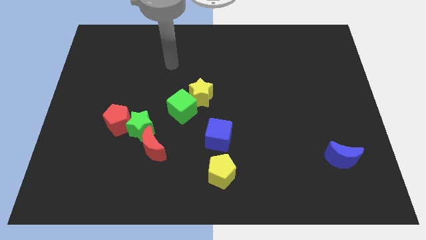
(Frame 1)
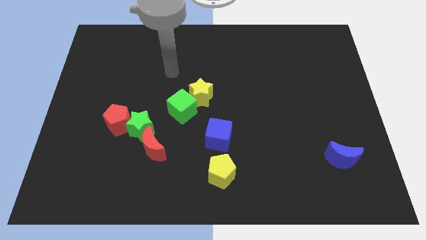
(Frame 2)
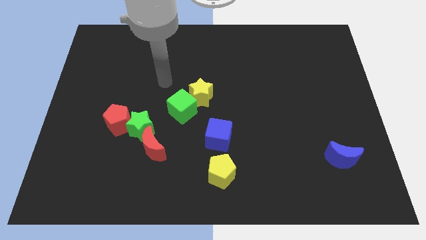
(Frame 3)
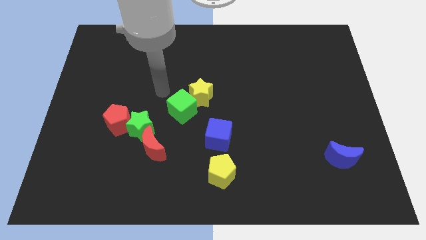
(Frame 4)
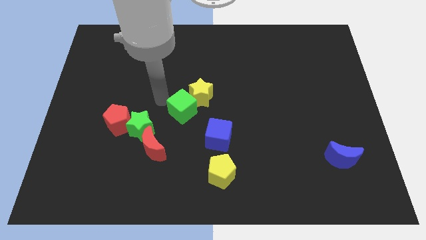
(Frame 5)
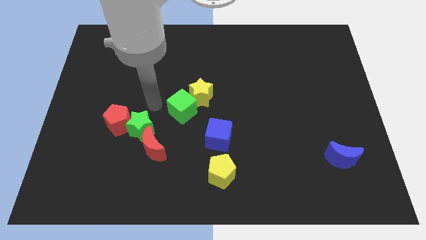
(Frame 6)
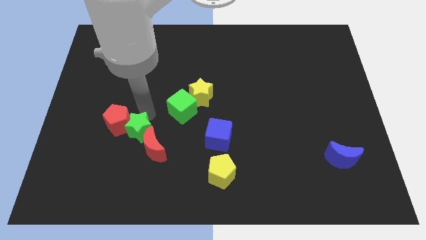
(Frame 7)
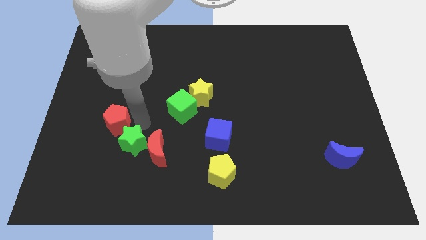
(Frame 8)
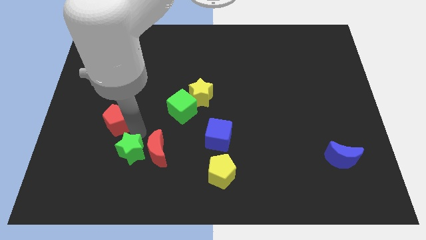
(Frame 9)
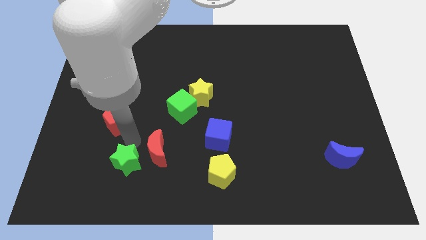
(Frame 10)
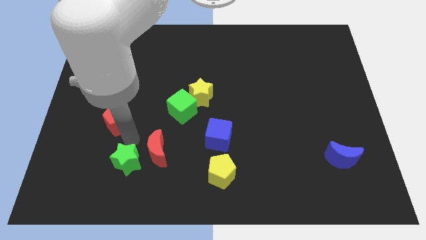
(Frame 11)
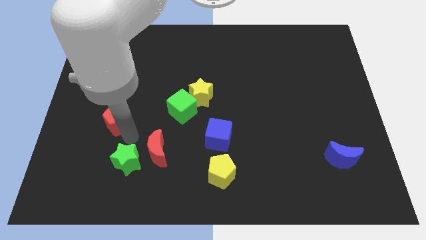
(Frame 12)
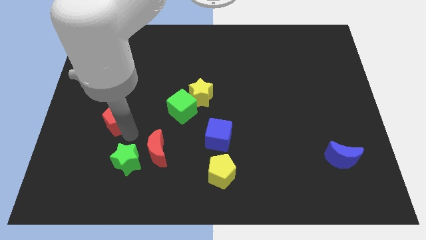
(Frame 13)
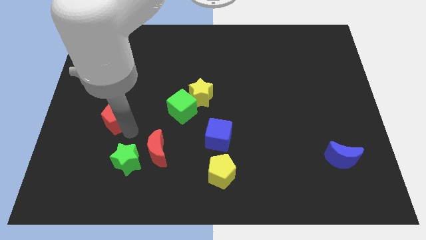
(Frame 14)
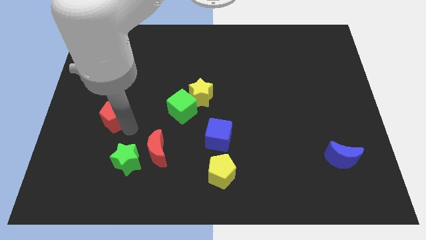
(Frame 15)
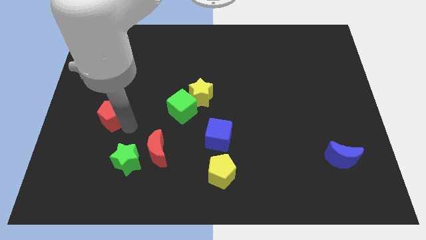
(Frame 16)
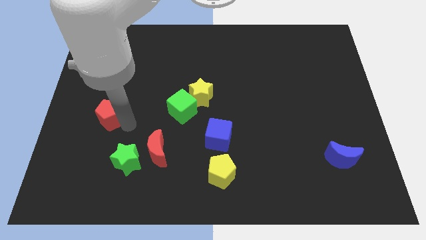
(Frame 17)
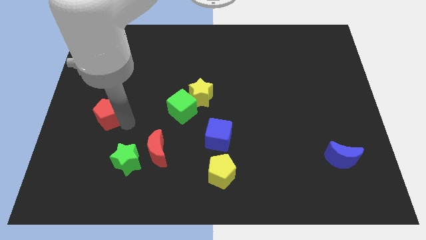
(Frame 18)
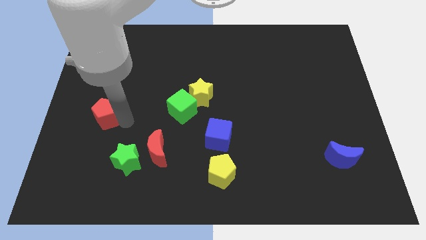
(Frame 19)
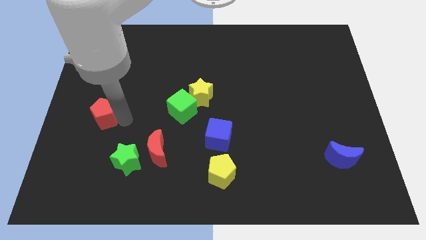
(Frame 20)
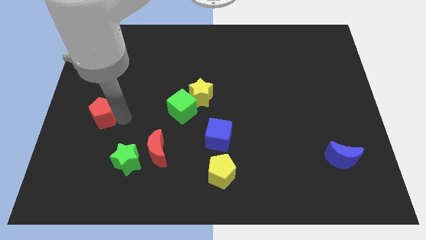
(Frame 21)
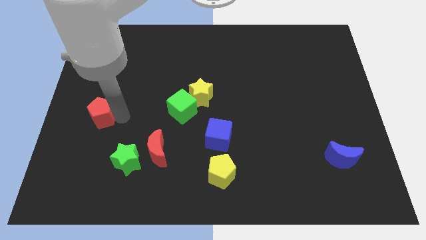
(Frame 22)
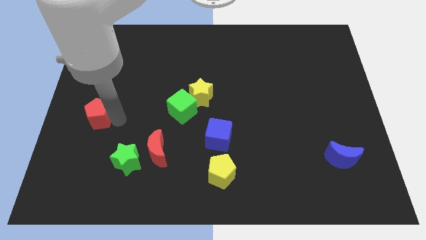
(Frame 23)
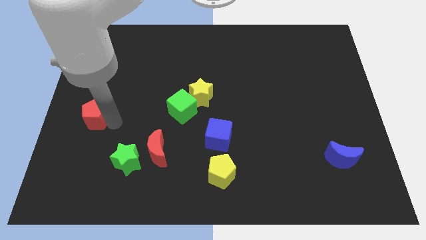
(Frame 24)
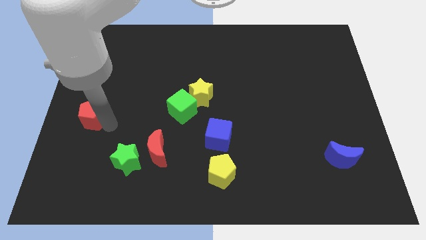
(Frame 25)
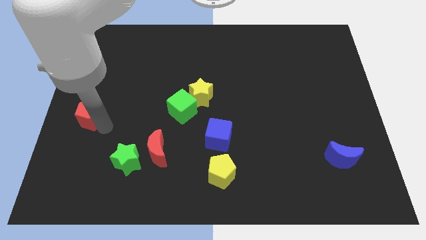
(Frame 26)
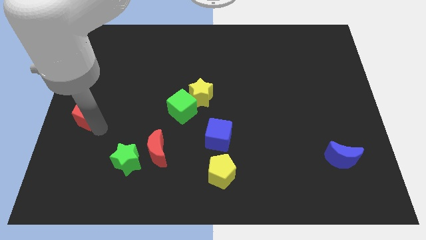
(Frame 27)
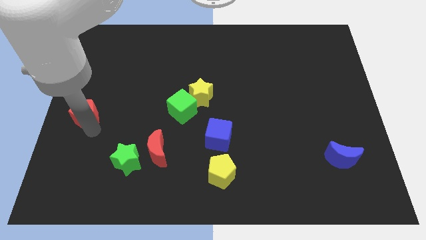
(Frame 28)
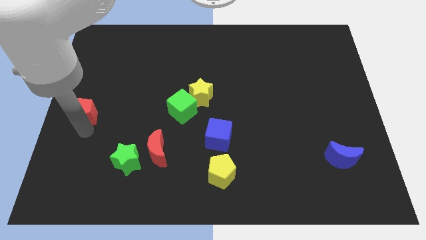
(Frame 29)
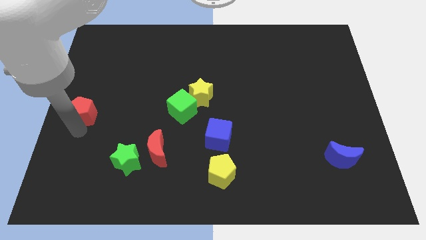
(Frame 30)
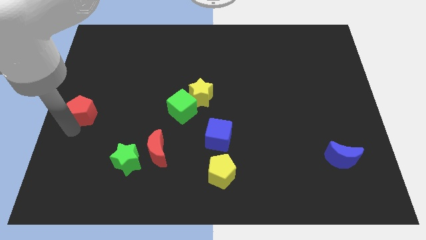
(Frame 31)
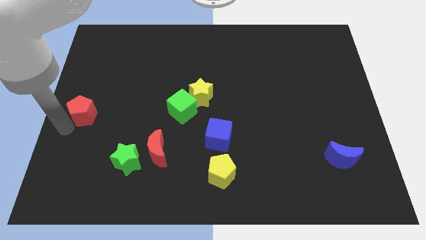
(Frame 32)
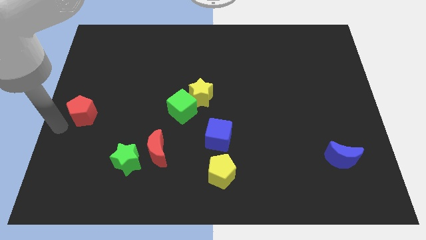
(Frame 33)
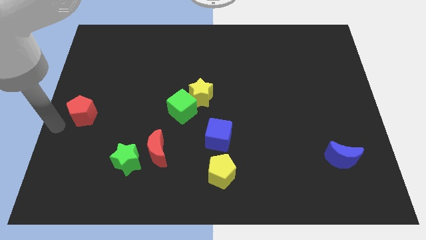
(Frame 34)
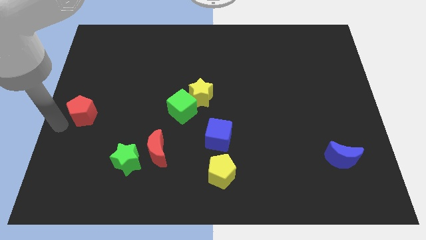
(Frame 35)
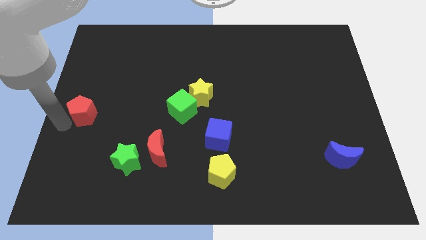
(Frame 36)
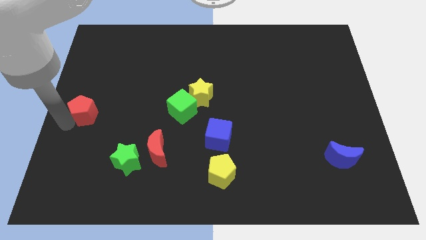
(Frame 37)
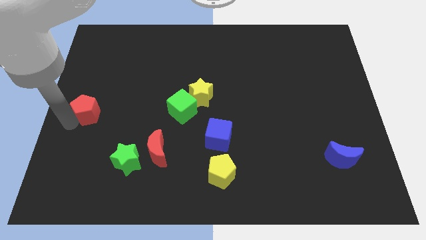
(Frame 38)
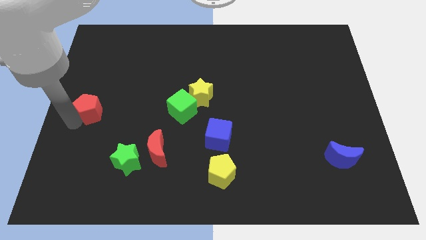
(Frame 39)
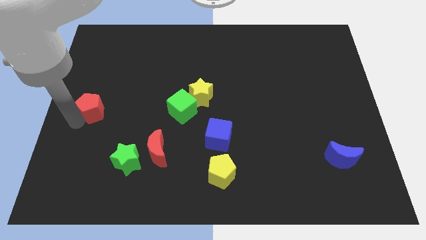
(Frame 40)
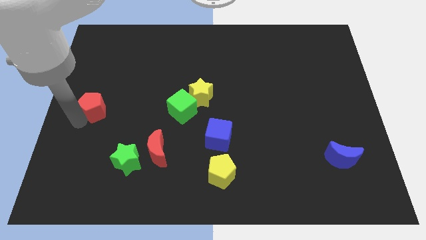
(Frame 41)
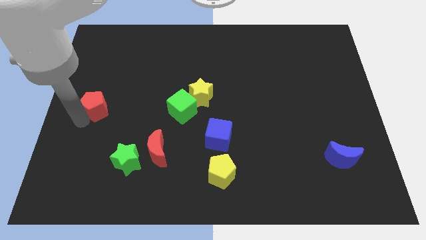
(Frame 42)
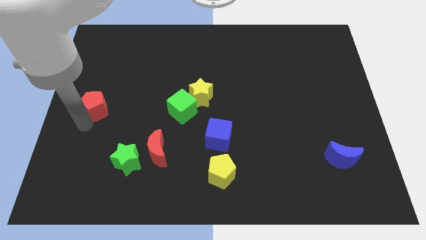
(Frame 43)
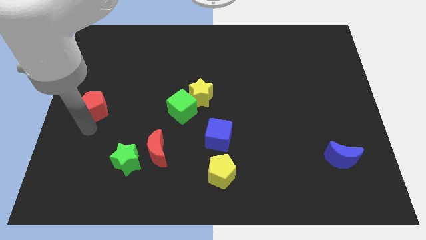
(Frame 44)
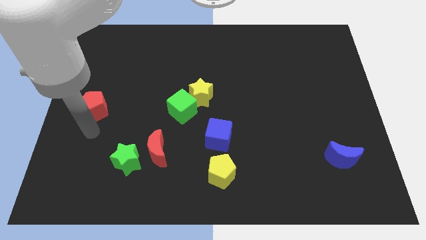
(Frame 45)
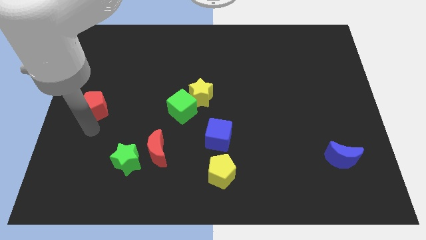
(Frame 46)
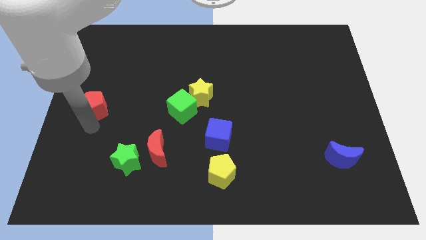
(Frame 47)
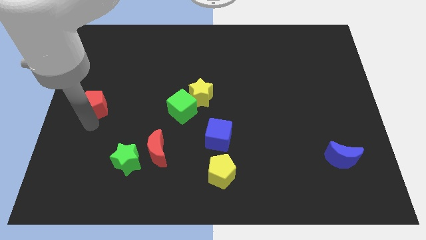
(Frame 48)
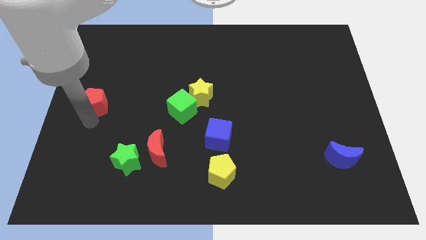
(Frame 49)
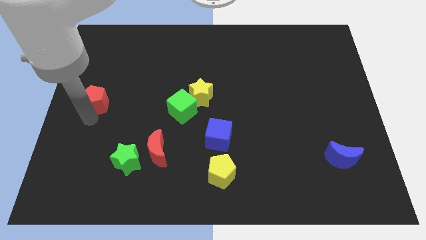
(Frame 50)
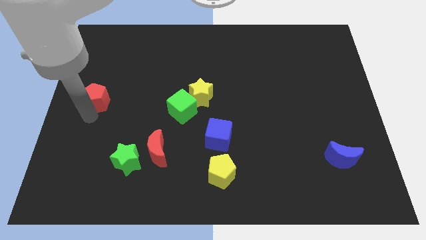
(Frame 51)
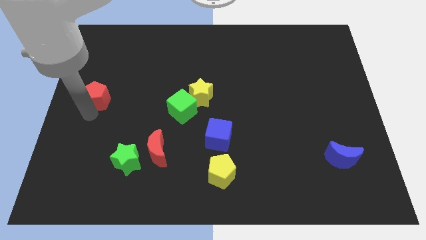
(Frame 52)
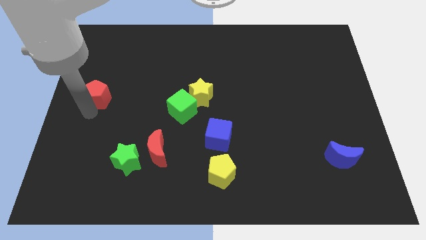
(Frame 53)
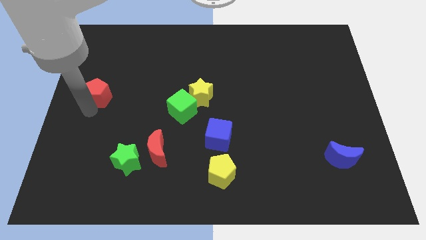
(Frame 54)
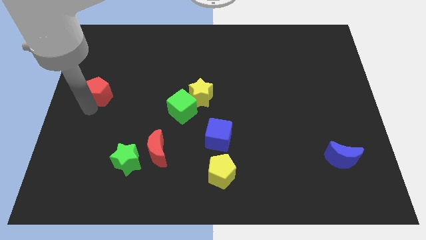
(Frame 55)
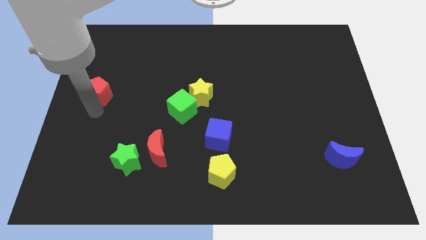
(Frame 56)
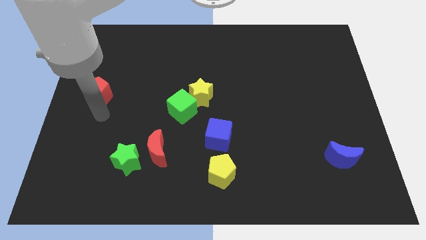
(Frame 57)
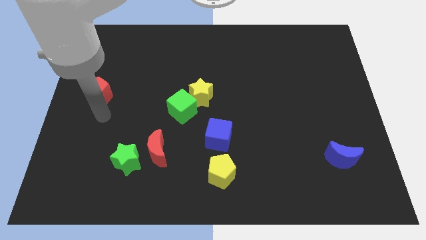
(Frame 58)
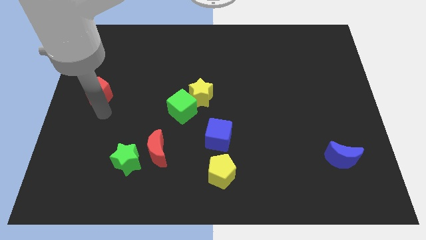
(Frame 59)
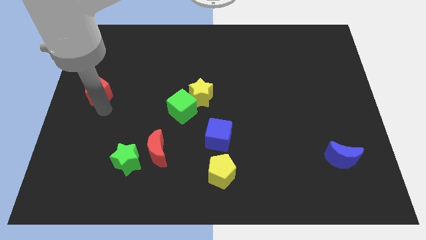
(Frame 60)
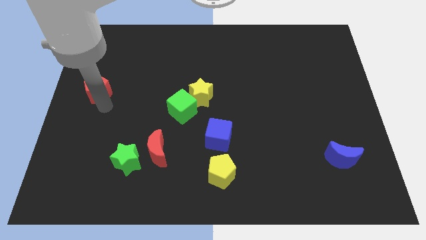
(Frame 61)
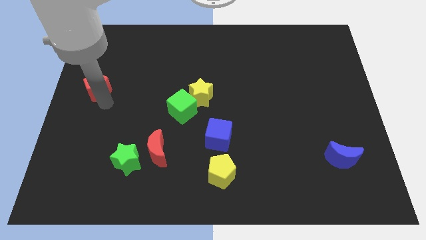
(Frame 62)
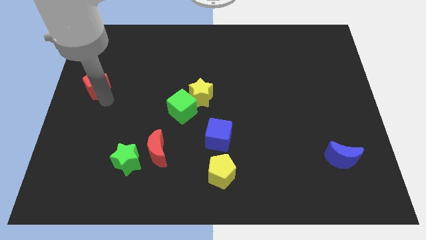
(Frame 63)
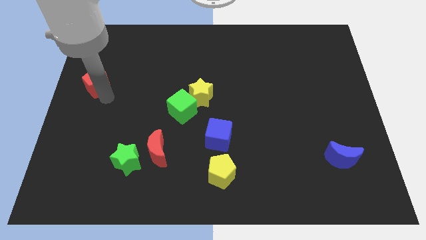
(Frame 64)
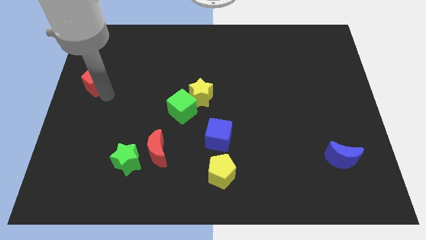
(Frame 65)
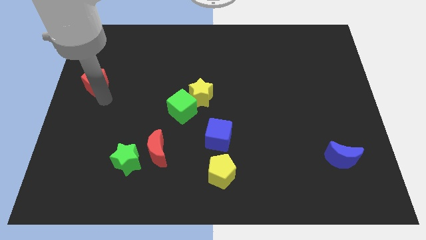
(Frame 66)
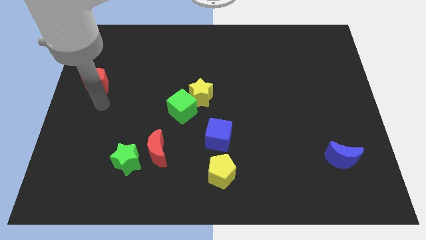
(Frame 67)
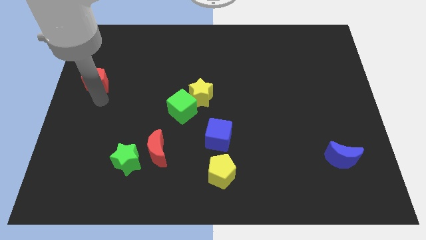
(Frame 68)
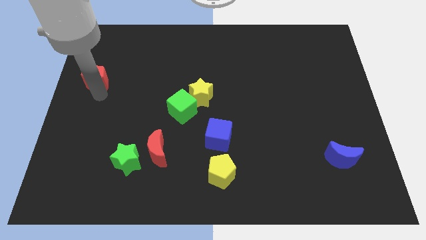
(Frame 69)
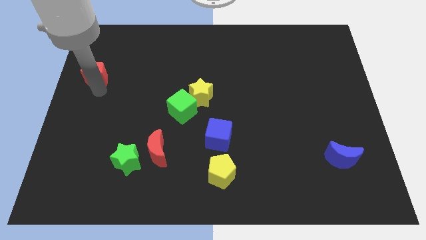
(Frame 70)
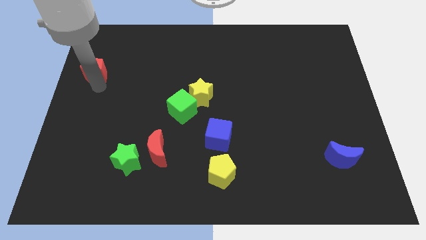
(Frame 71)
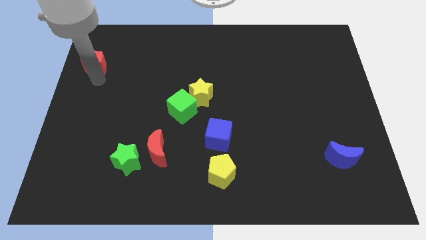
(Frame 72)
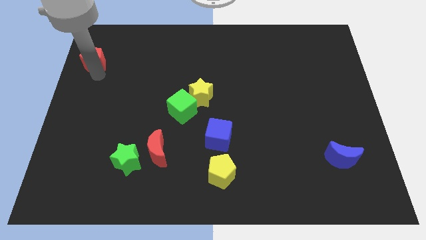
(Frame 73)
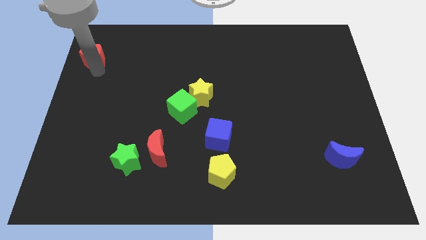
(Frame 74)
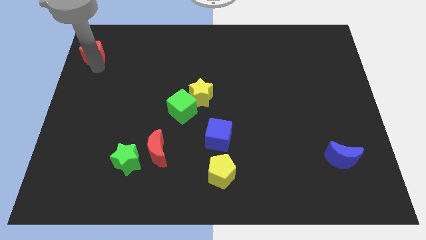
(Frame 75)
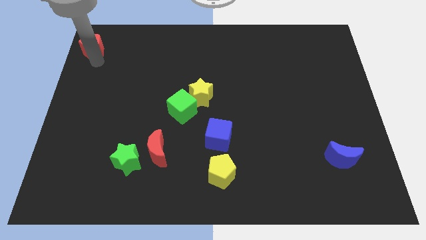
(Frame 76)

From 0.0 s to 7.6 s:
put the red pentagon to the top left of the board
